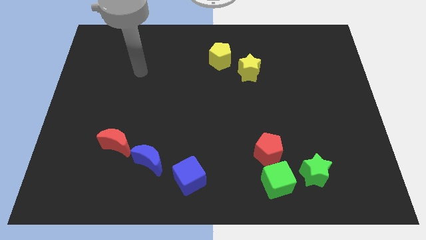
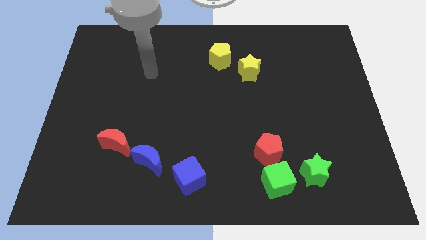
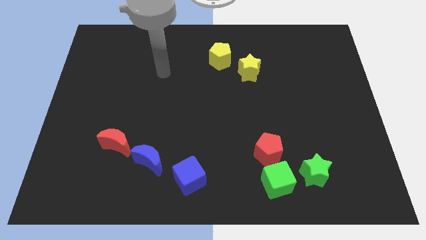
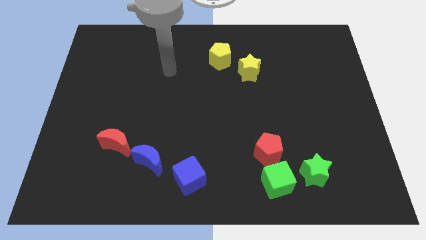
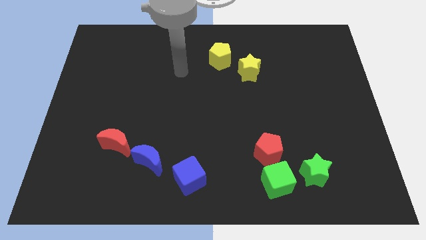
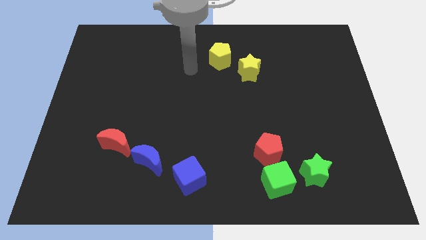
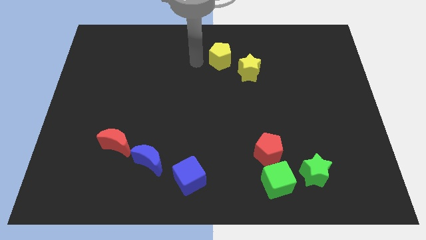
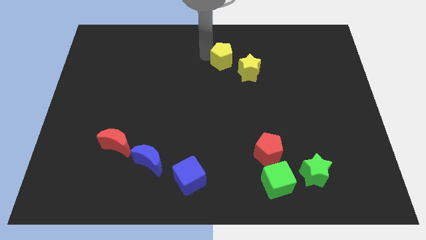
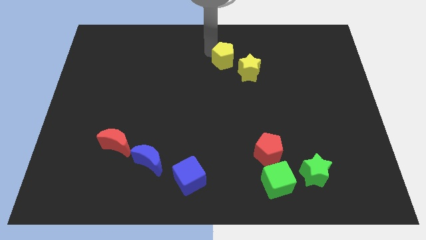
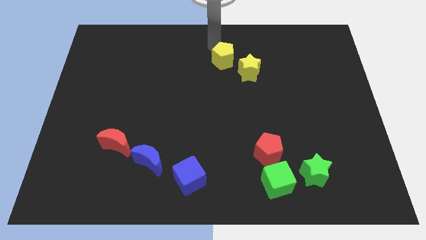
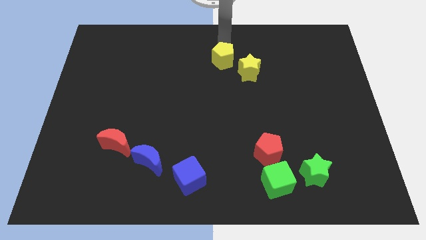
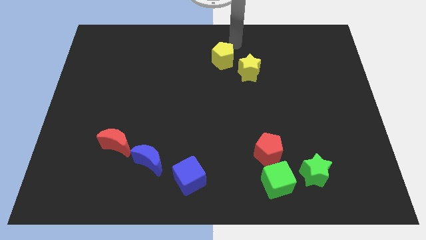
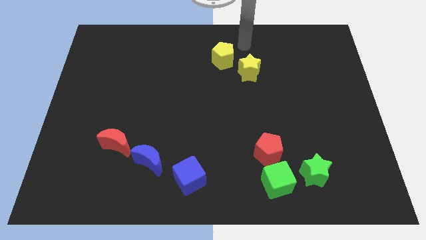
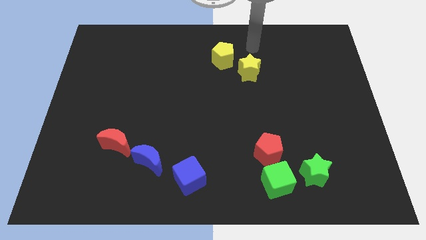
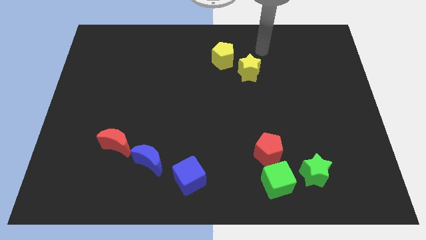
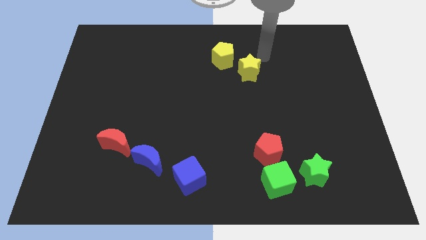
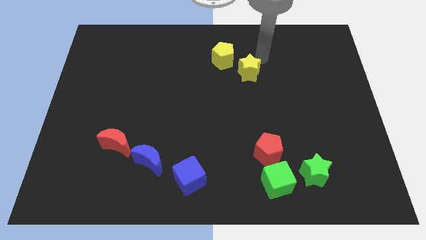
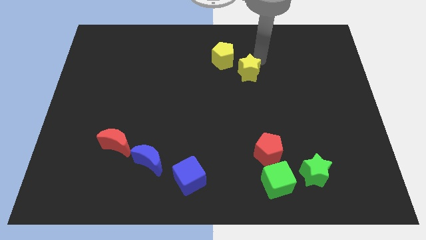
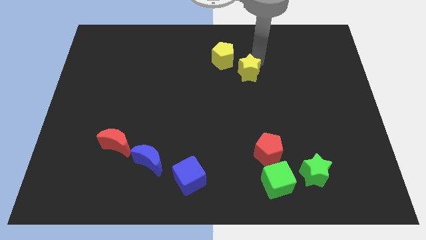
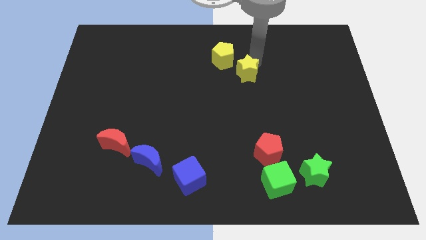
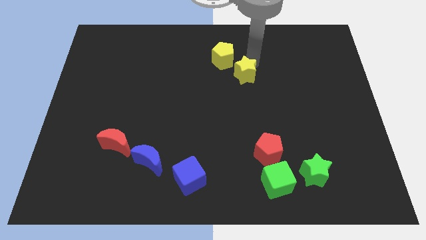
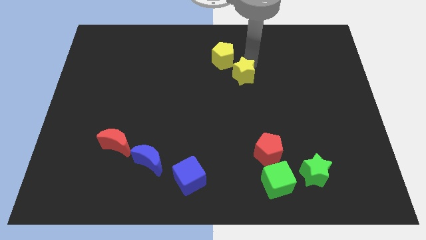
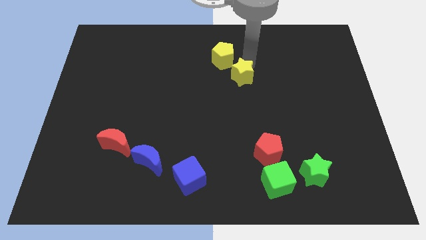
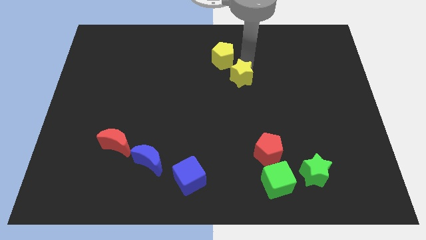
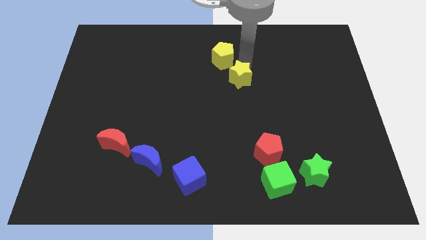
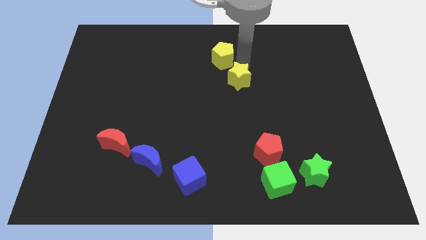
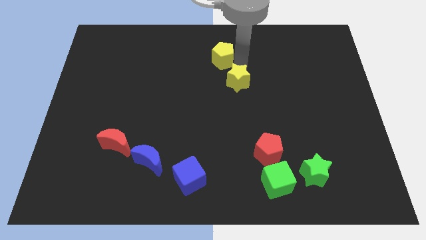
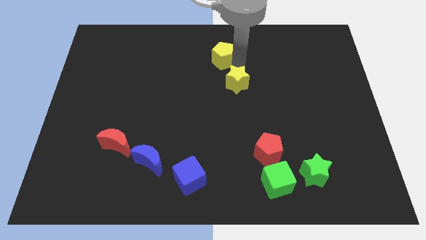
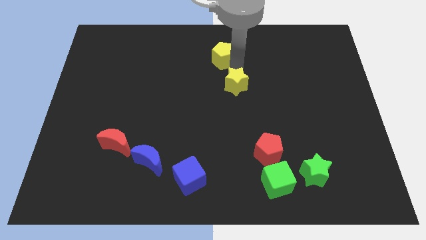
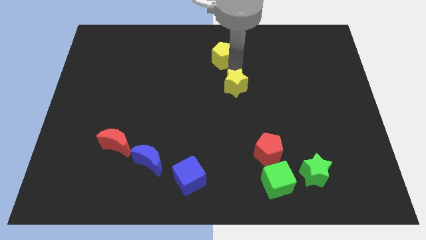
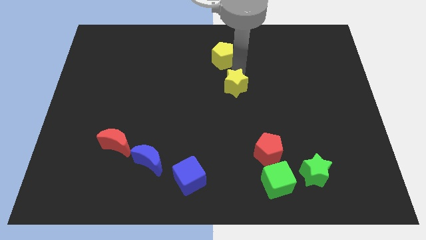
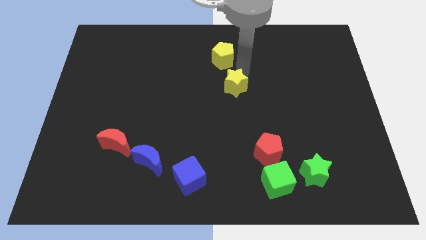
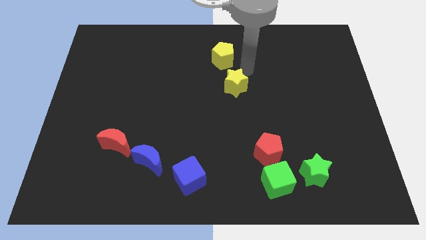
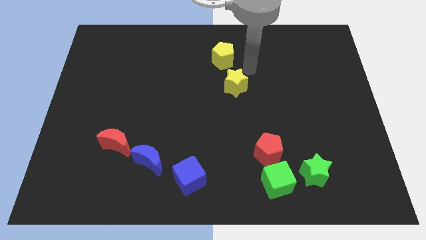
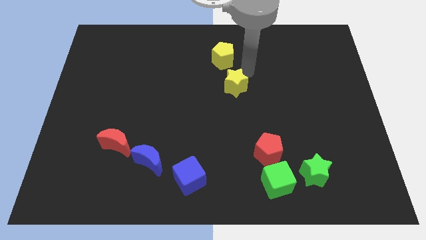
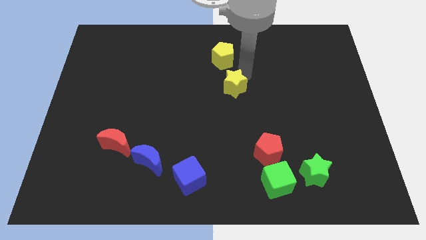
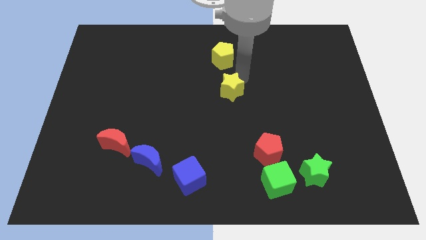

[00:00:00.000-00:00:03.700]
push the yellow star diagonally downwards and to the left somewhat

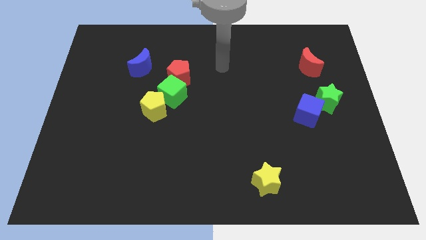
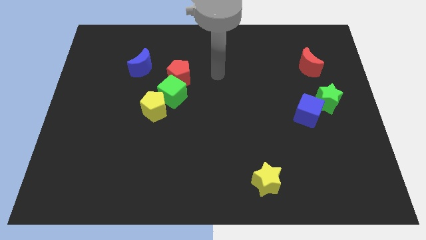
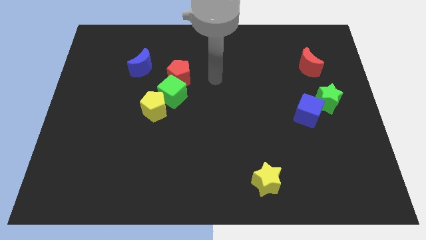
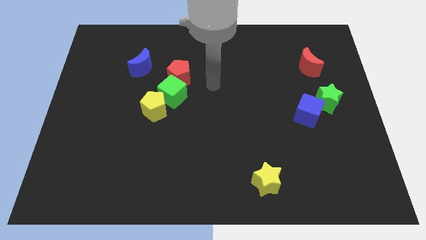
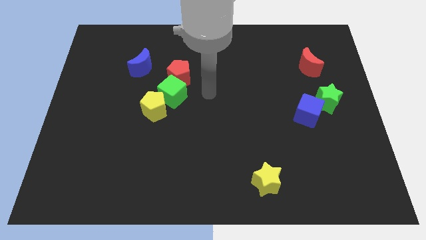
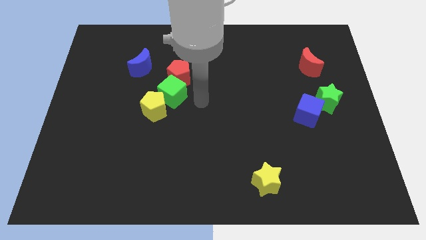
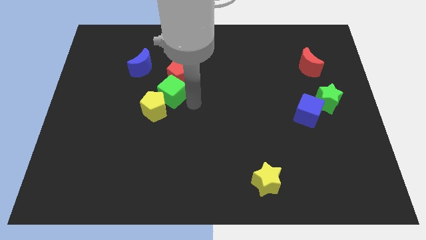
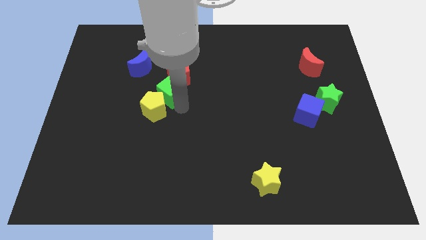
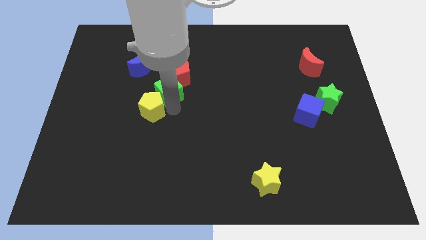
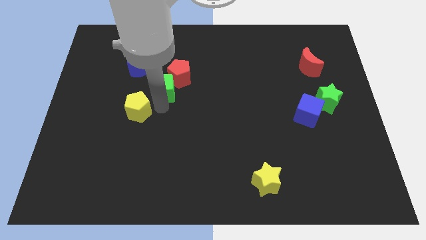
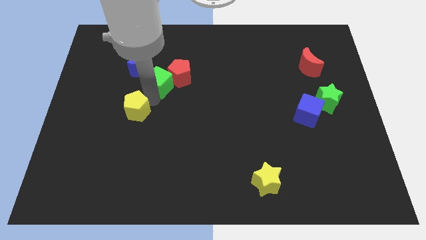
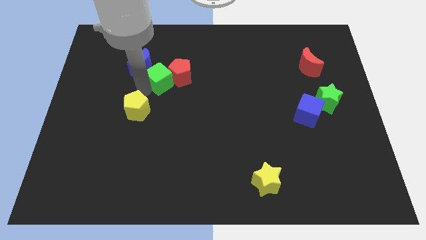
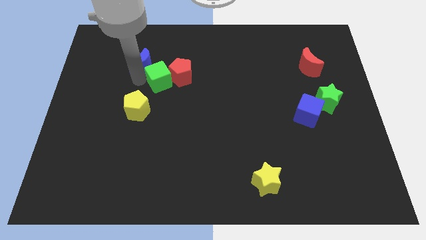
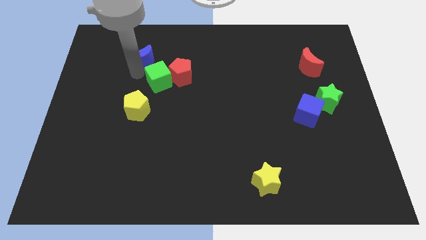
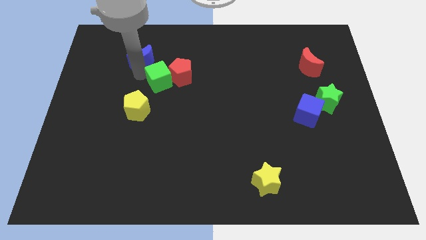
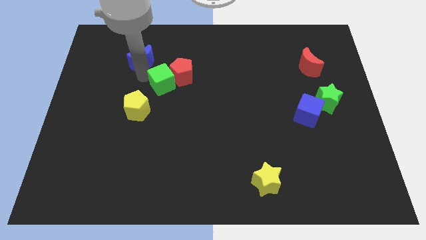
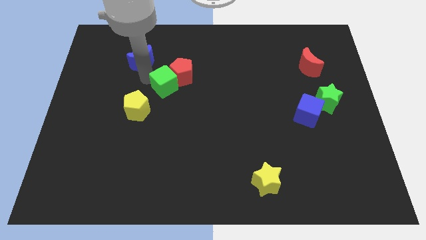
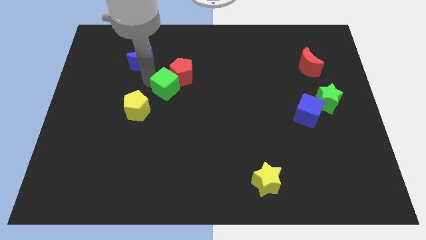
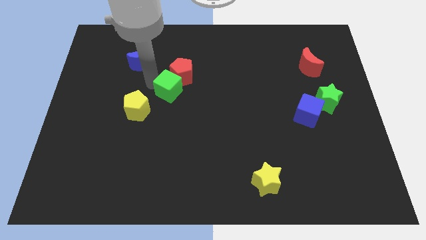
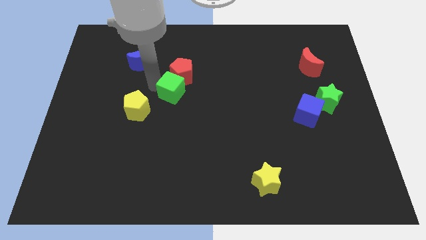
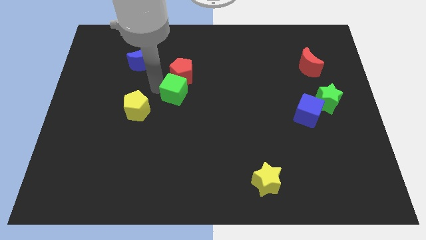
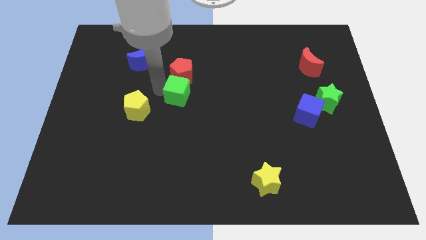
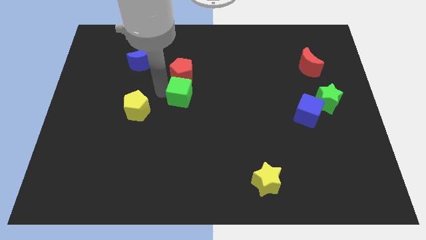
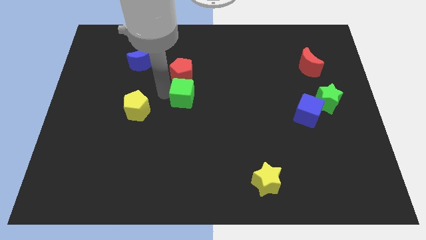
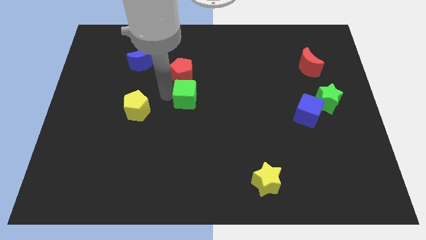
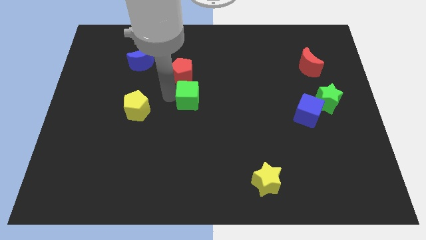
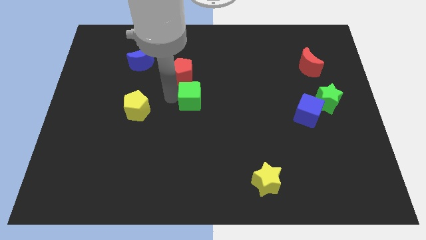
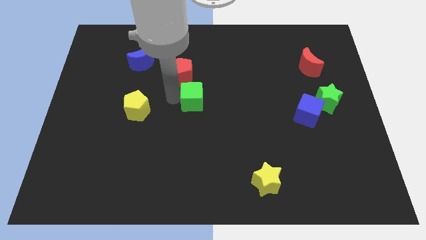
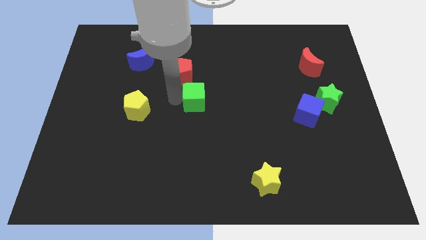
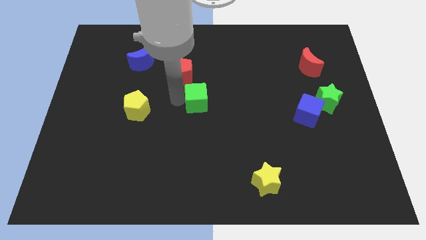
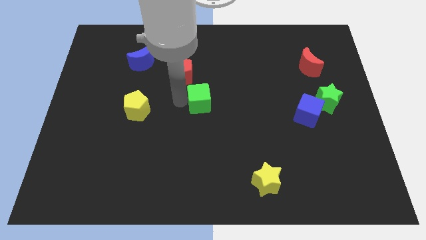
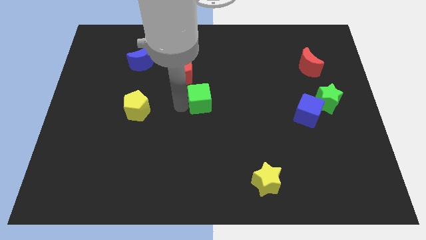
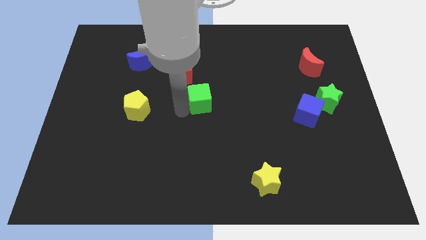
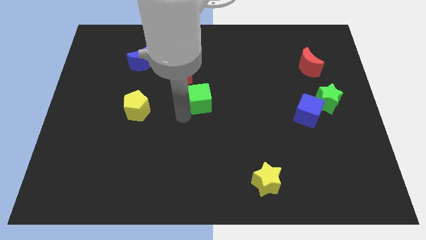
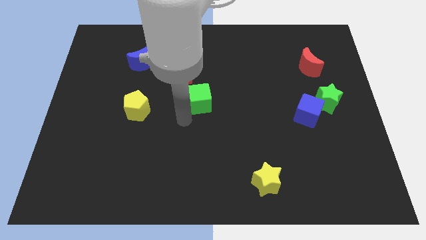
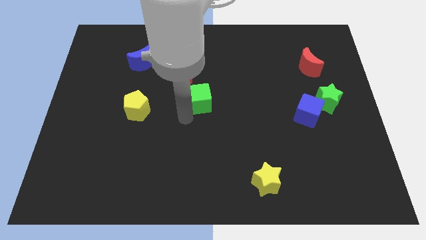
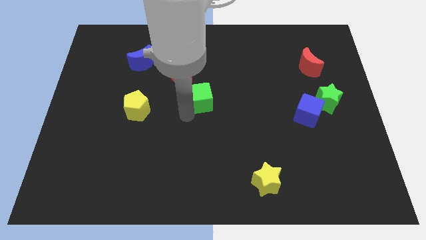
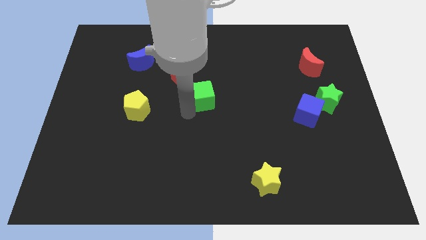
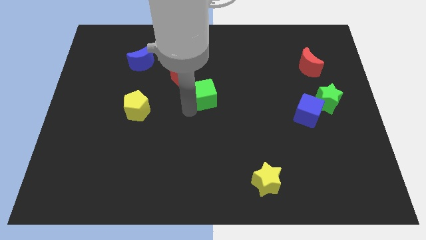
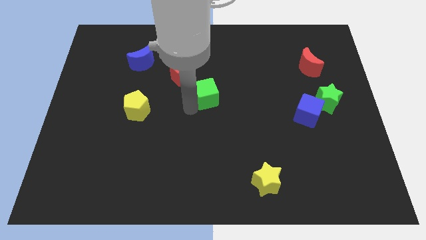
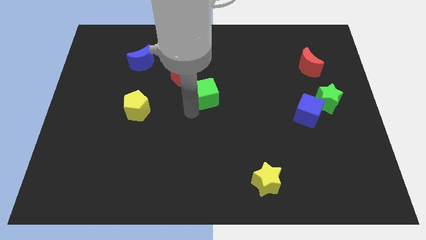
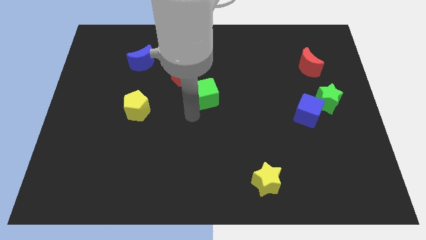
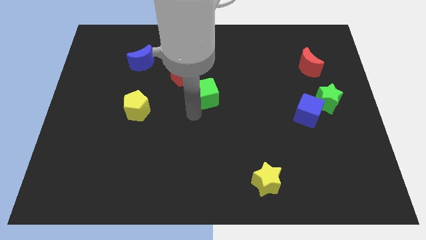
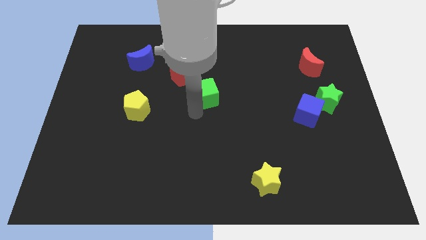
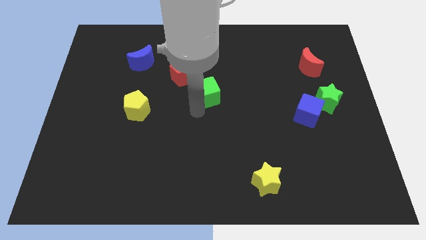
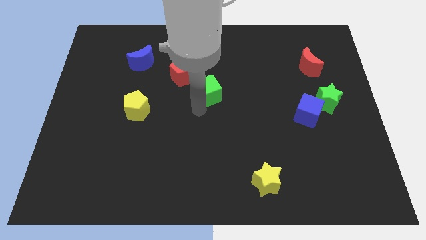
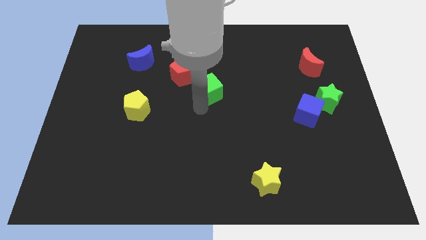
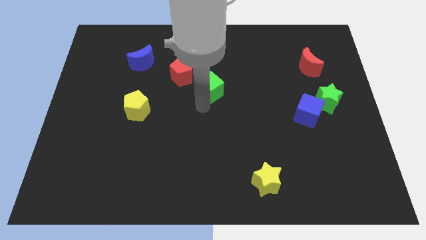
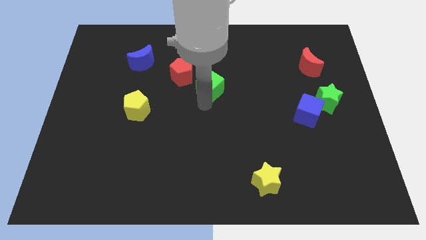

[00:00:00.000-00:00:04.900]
slightly push the green cube diagonally up and right

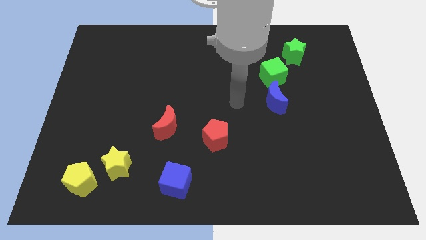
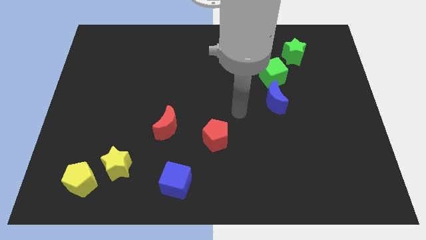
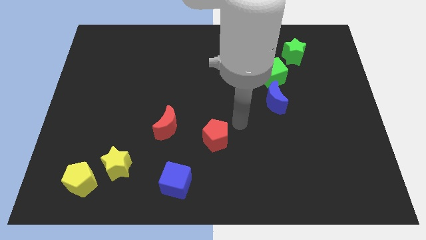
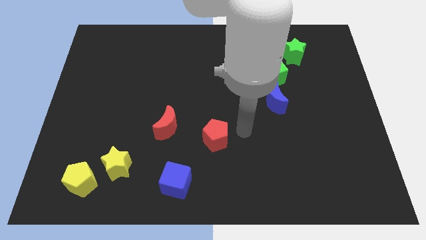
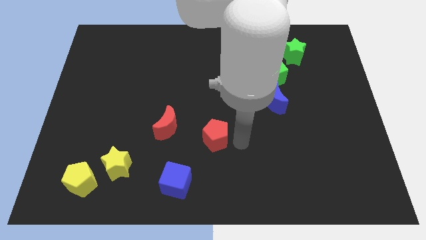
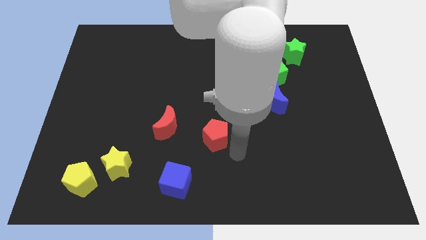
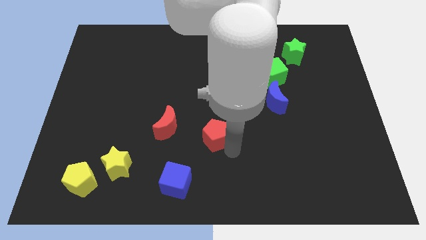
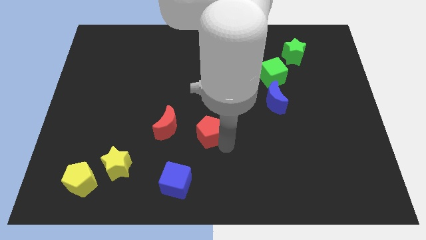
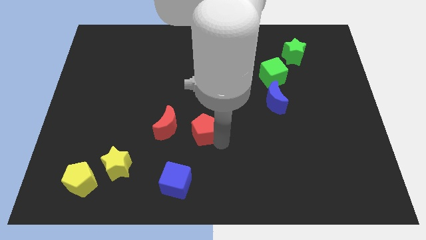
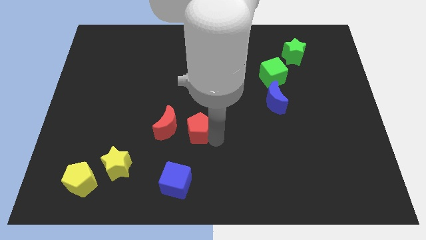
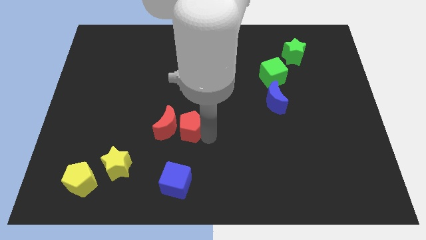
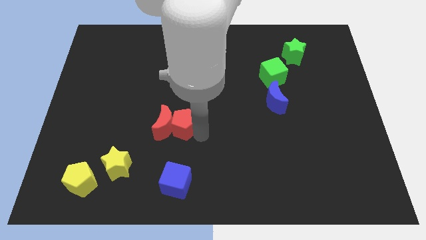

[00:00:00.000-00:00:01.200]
push the red pentagon up and then left somewhat
